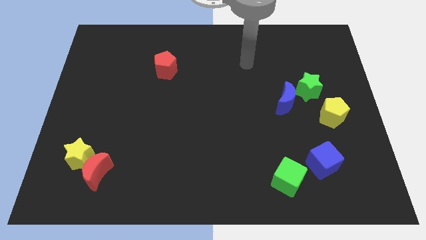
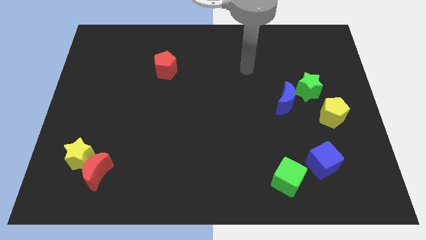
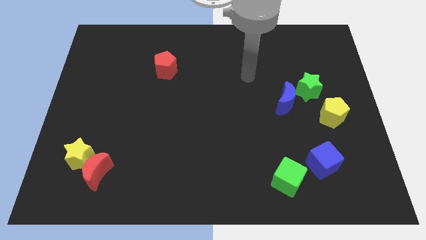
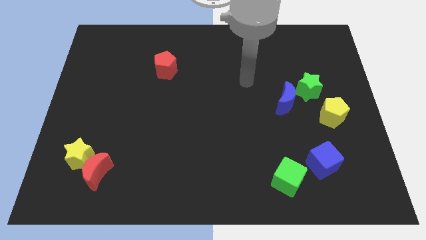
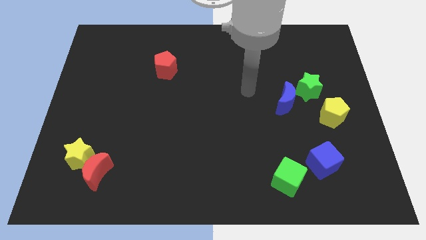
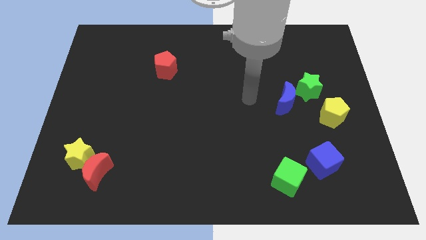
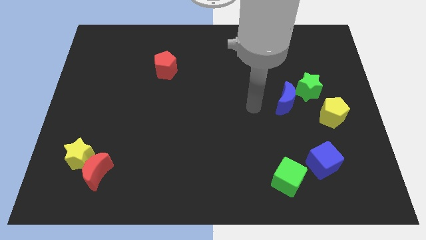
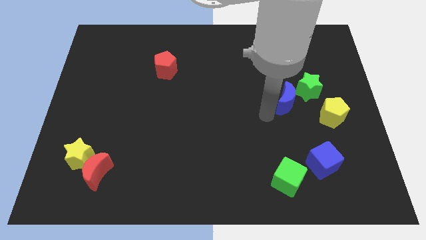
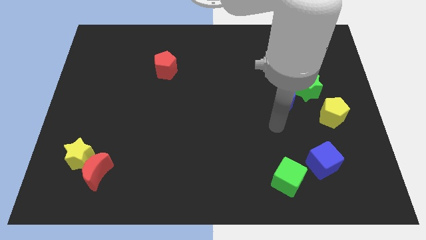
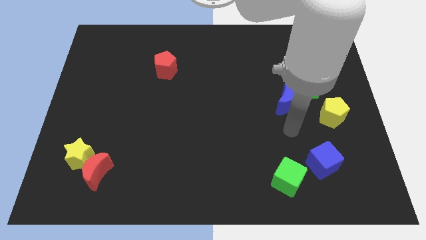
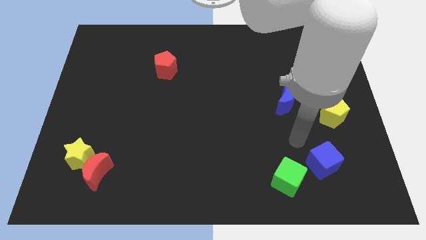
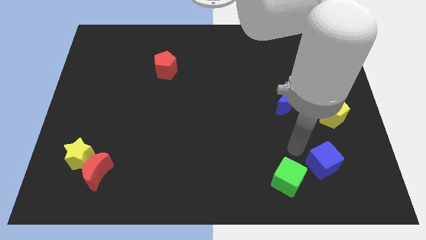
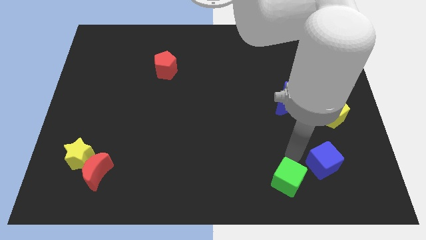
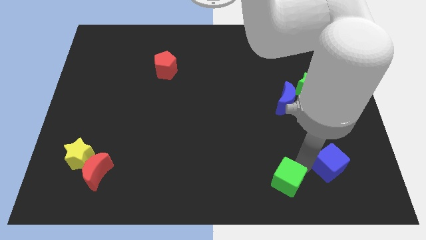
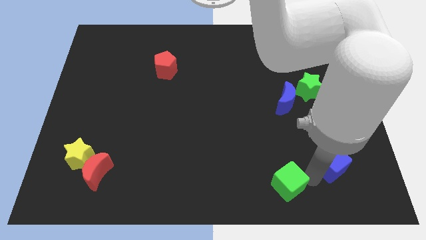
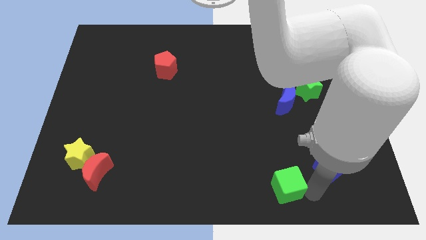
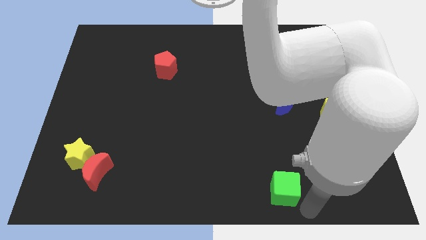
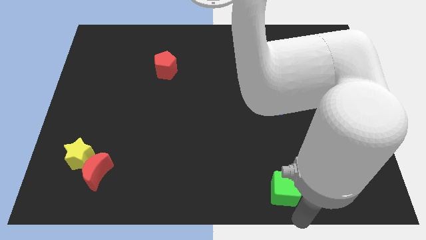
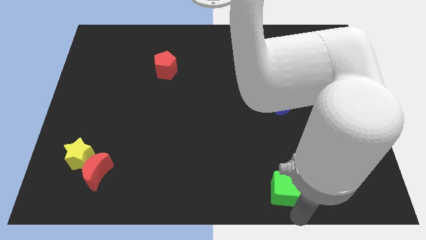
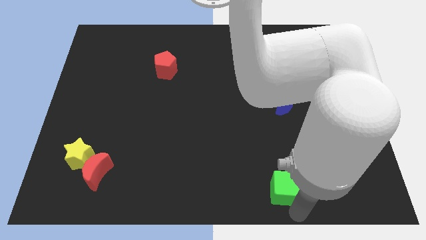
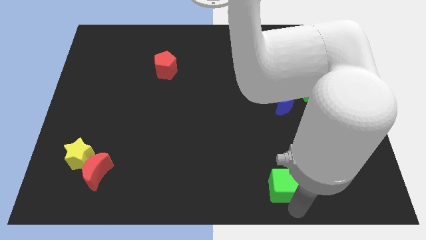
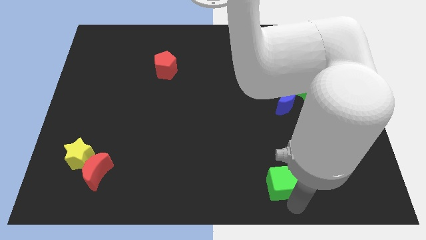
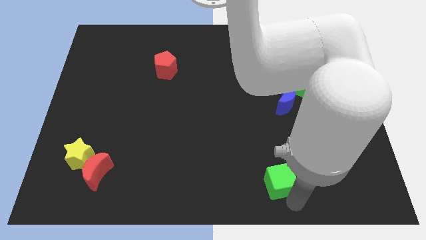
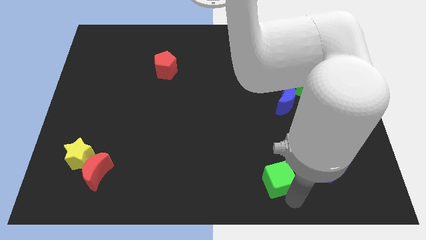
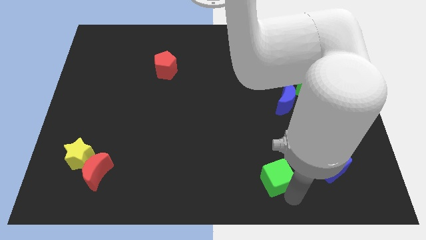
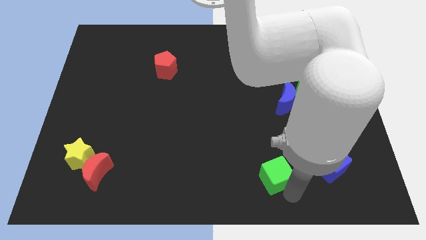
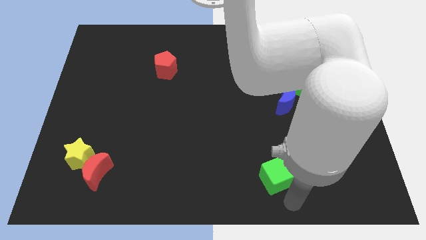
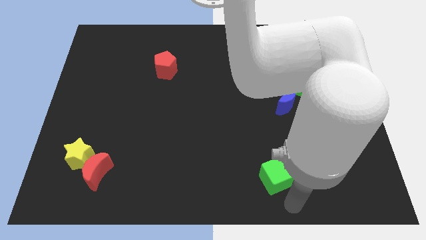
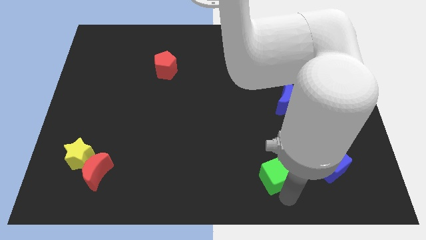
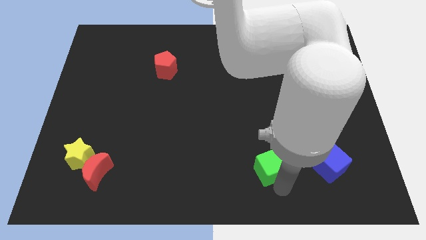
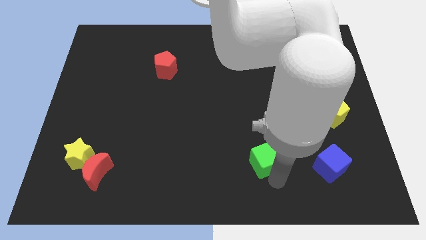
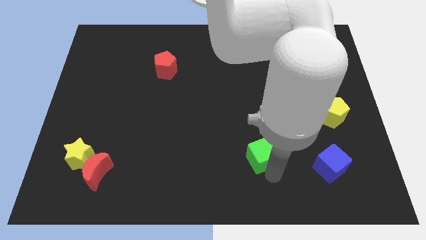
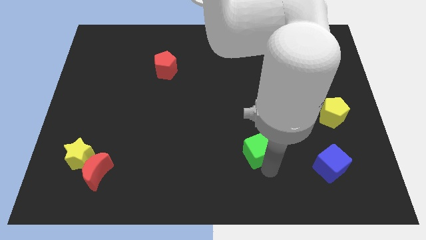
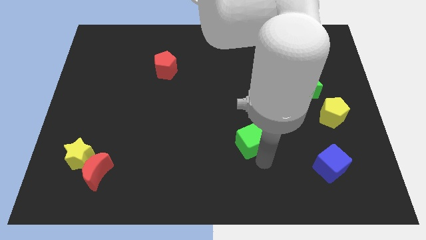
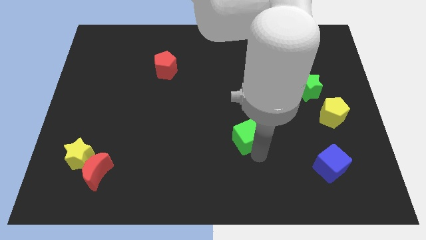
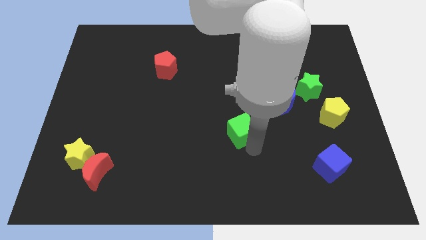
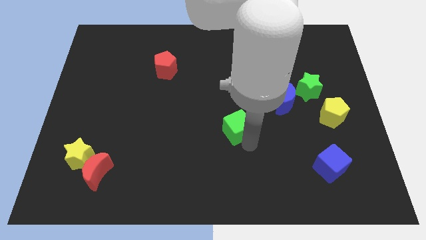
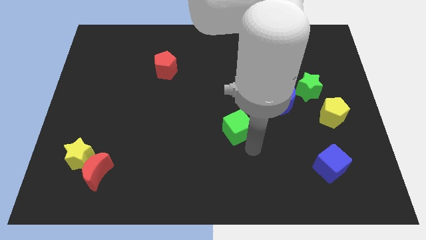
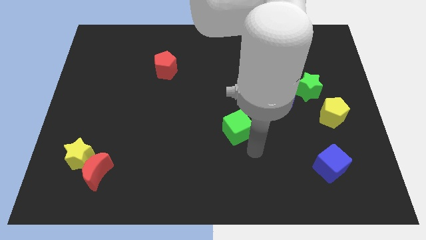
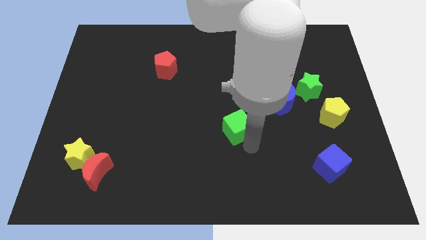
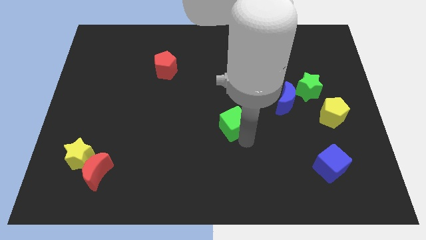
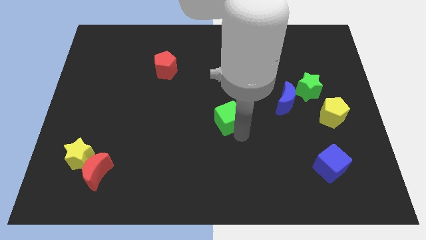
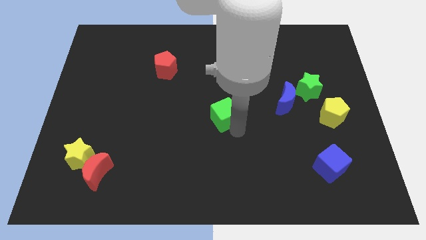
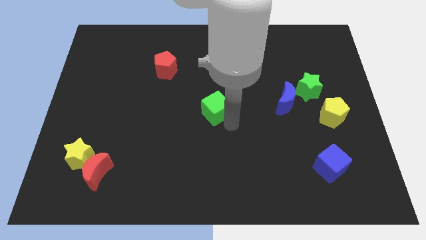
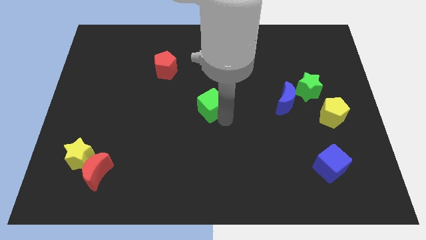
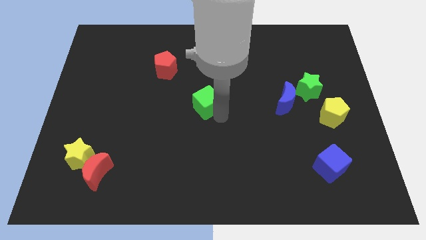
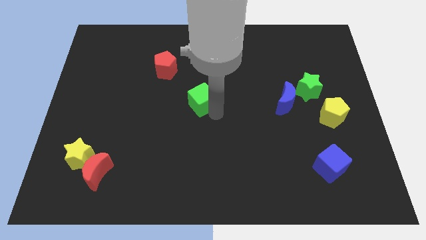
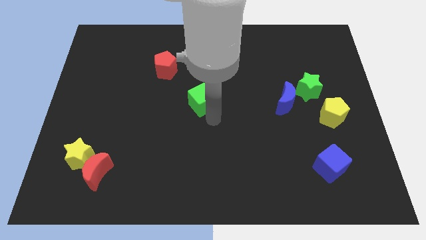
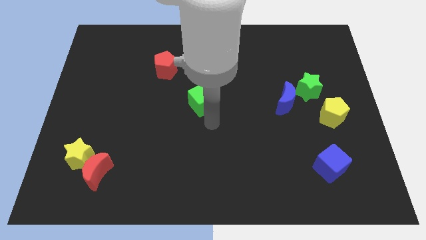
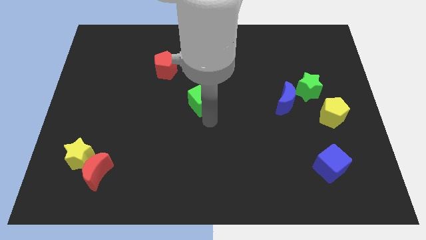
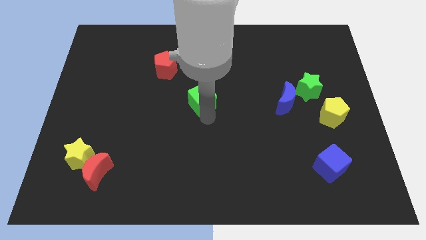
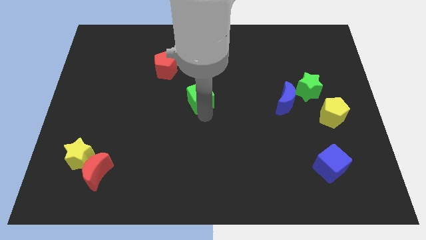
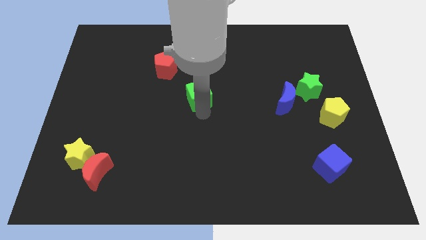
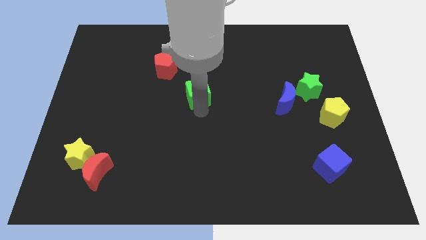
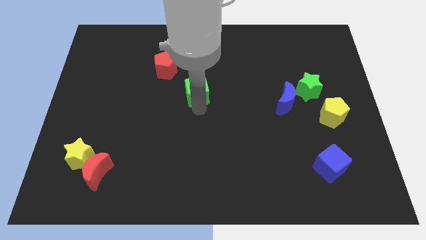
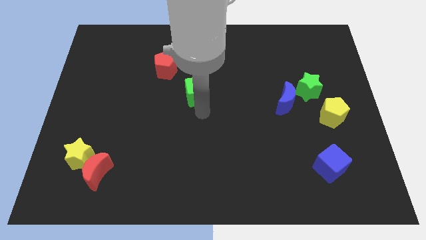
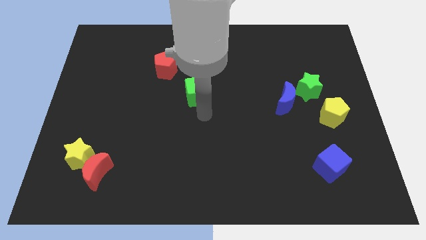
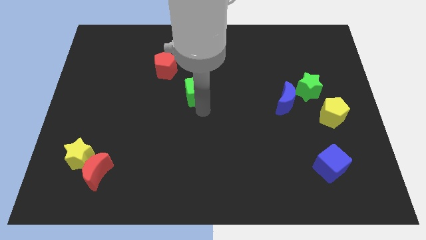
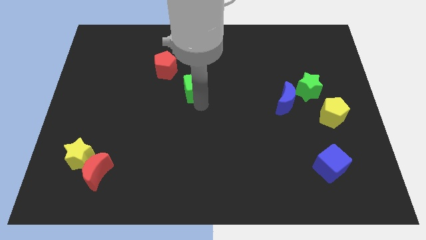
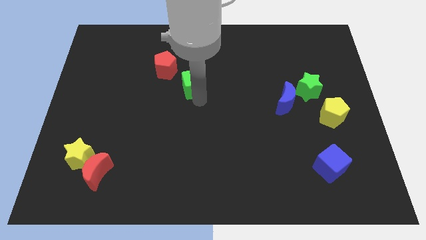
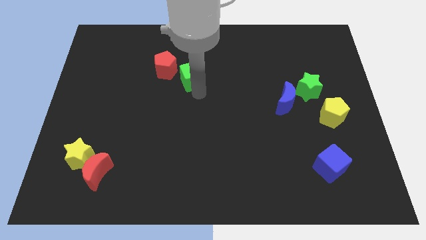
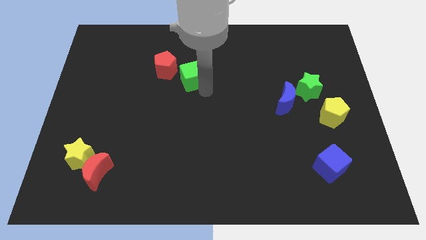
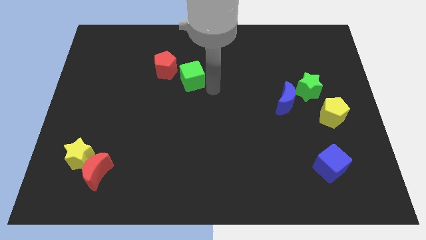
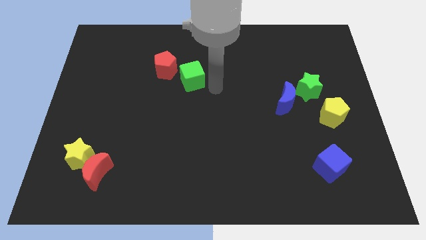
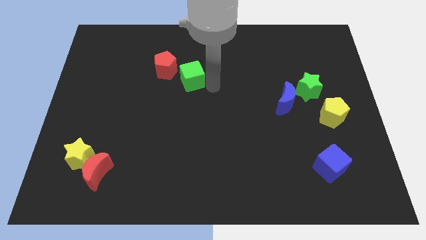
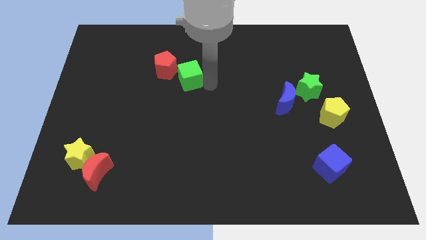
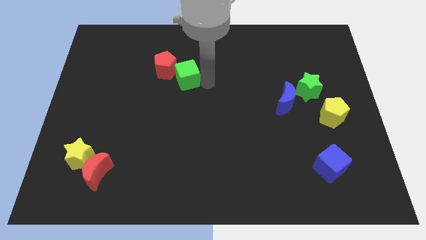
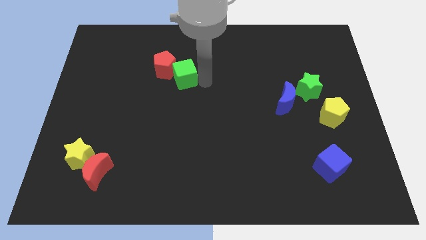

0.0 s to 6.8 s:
slide the green cube close to the red pentagon

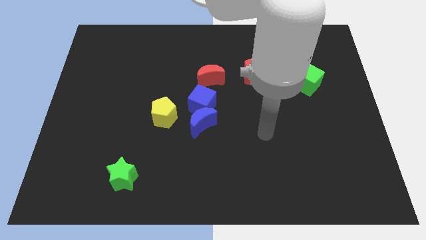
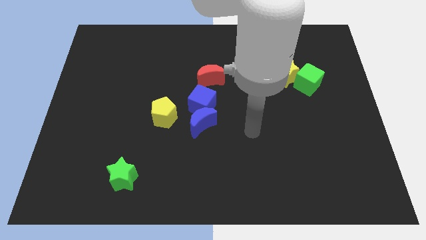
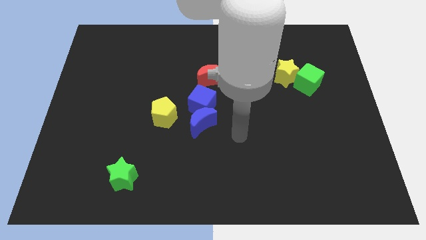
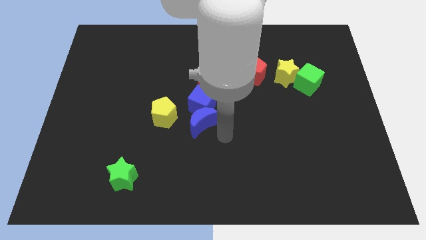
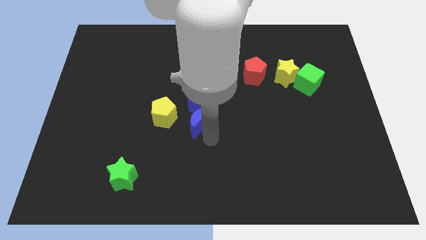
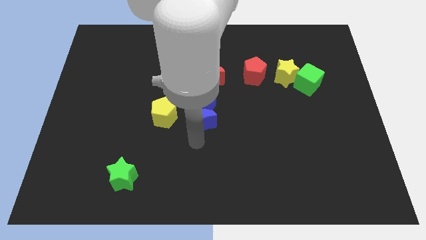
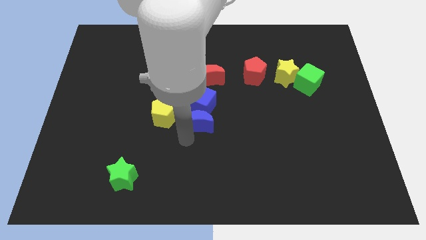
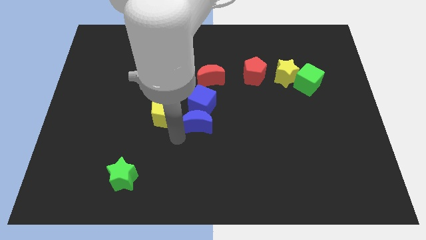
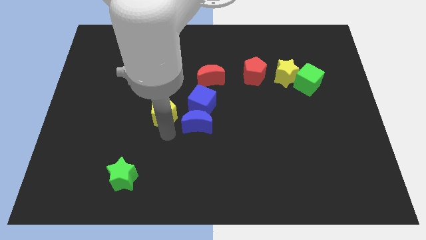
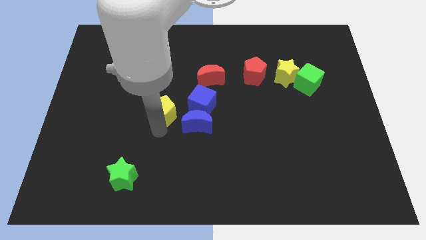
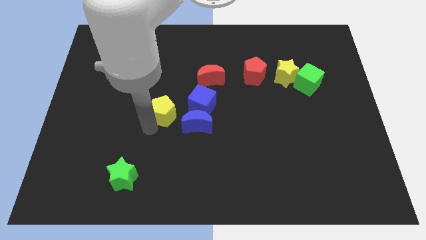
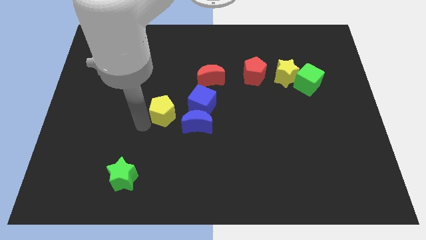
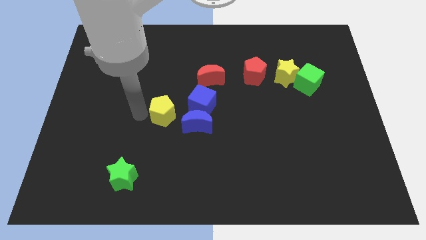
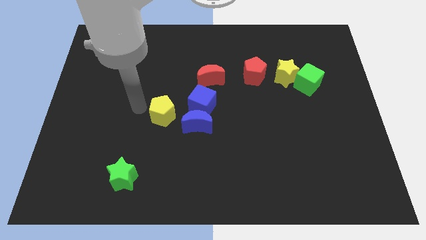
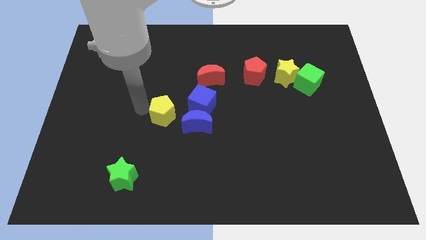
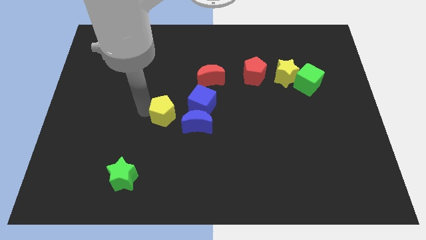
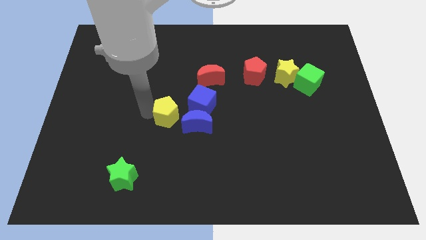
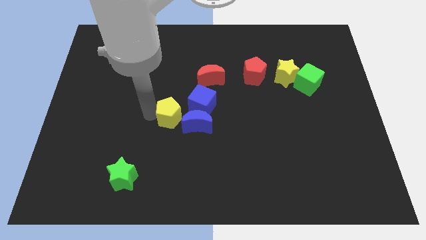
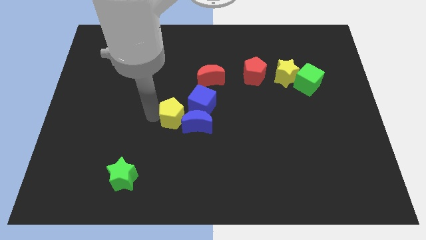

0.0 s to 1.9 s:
move the yellow pentagon next to the blue moon
